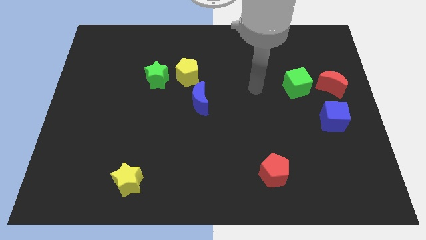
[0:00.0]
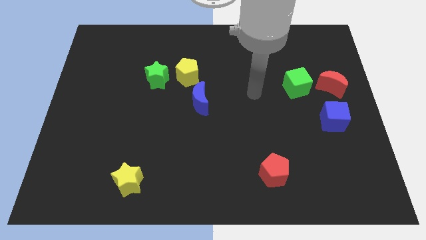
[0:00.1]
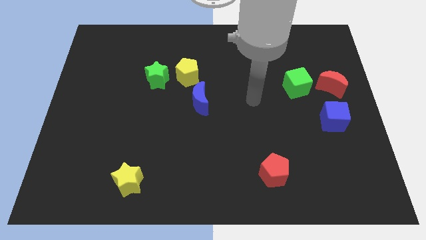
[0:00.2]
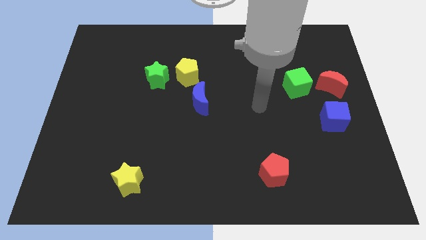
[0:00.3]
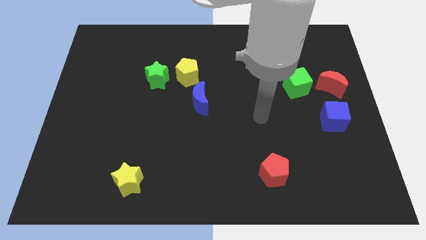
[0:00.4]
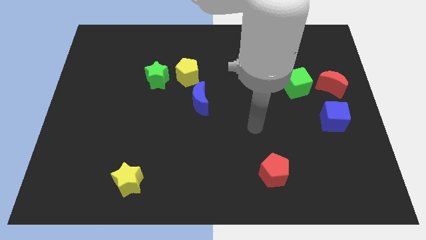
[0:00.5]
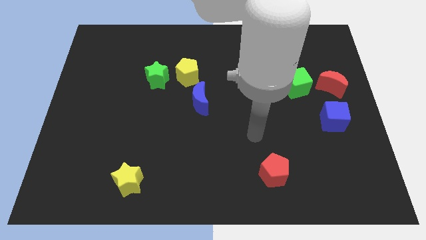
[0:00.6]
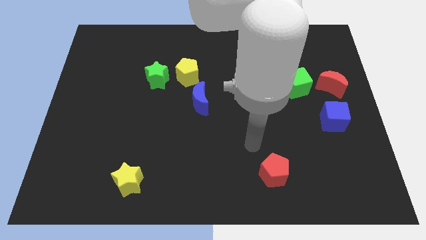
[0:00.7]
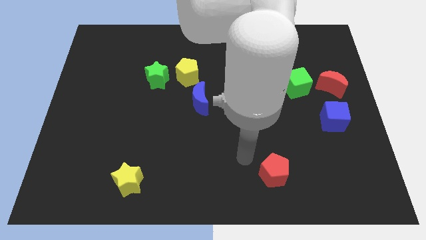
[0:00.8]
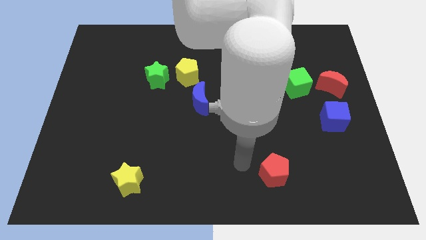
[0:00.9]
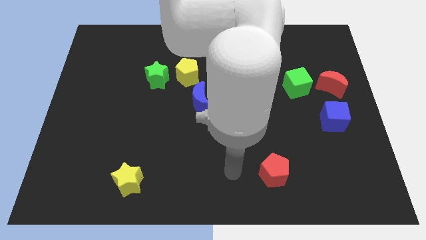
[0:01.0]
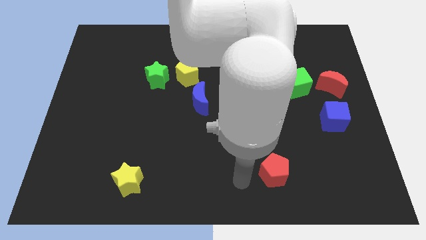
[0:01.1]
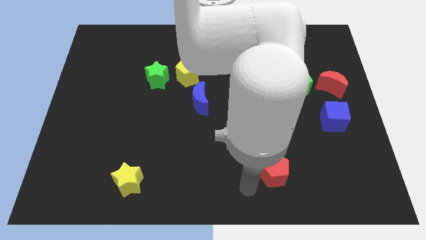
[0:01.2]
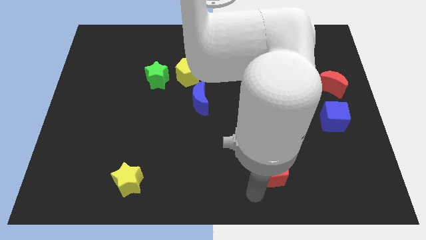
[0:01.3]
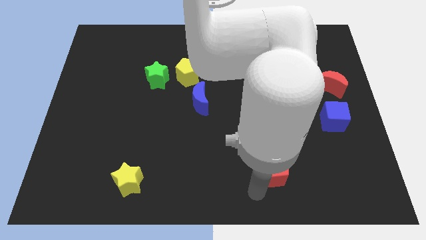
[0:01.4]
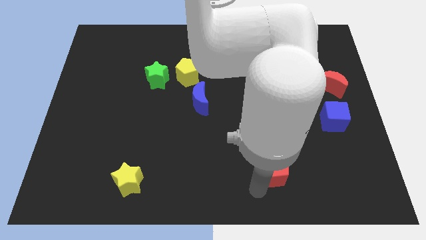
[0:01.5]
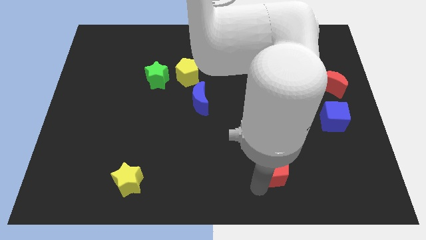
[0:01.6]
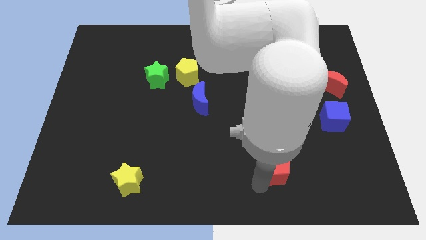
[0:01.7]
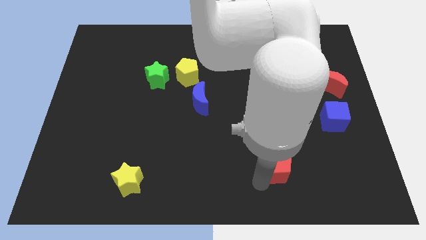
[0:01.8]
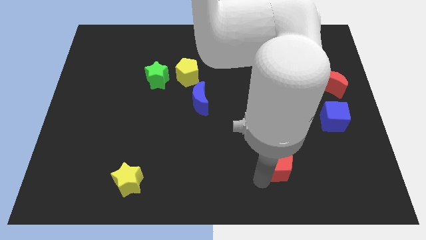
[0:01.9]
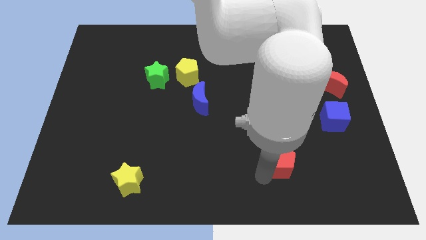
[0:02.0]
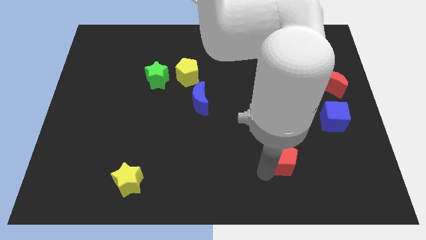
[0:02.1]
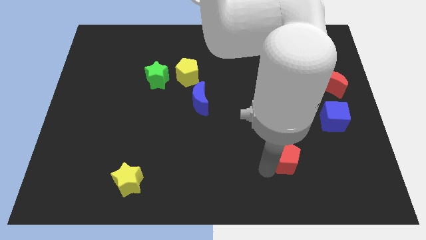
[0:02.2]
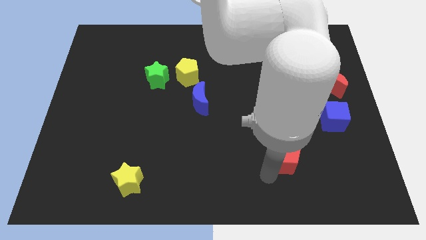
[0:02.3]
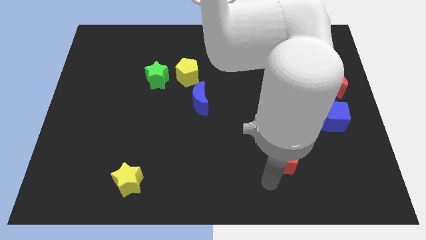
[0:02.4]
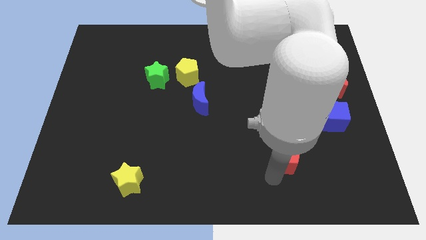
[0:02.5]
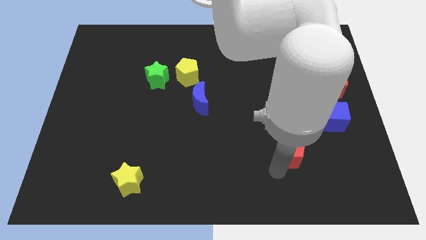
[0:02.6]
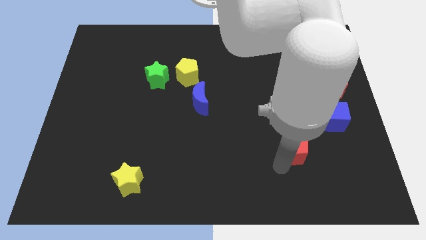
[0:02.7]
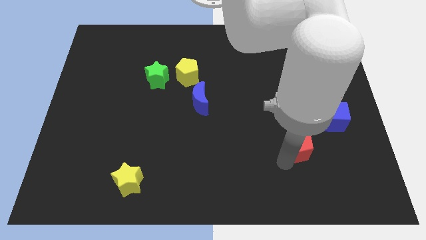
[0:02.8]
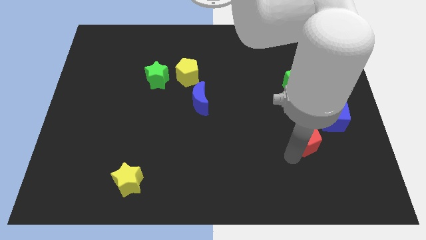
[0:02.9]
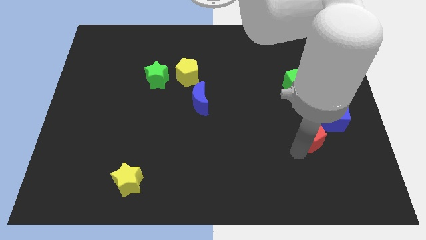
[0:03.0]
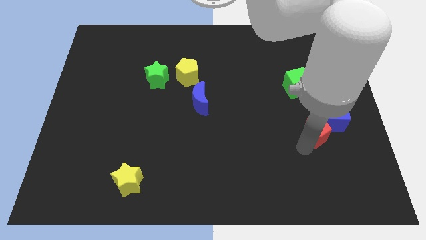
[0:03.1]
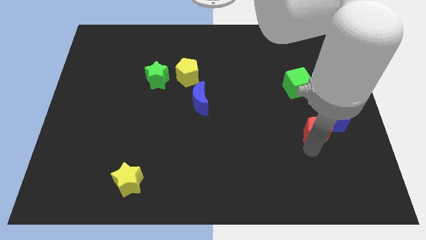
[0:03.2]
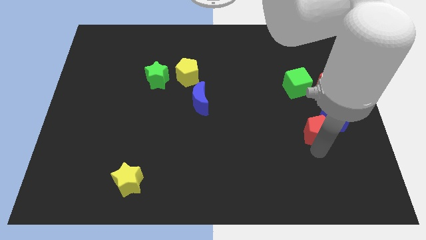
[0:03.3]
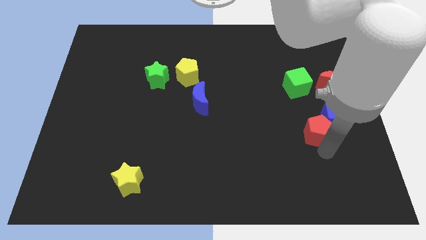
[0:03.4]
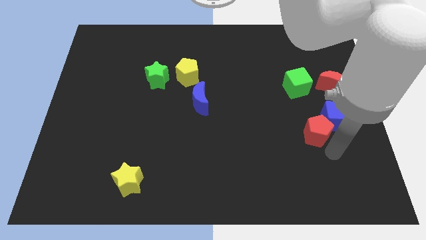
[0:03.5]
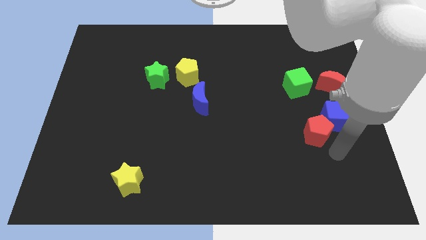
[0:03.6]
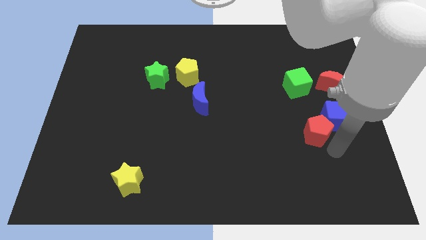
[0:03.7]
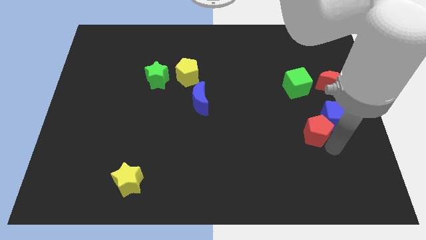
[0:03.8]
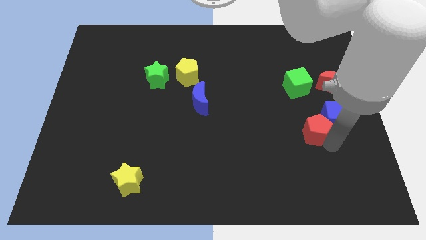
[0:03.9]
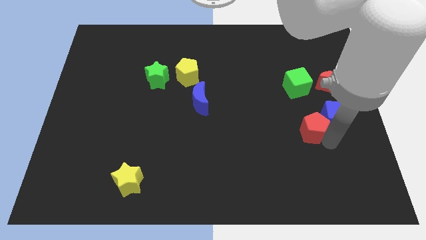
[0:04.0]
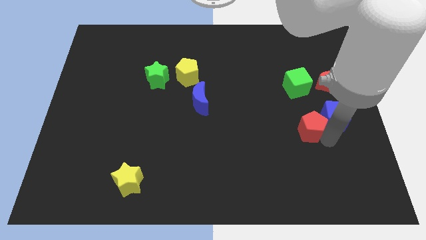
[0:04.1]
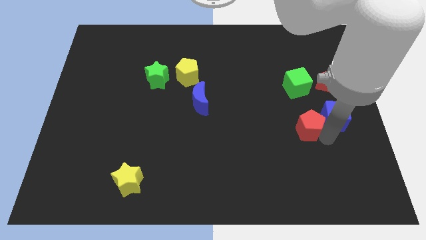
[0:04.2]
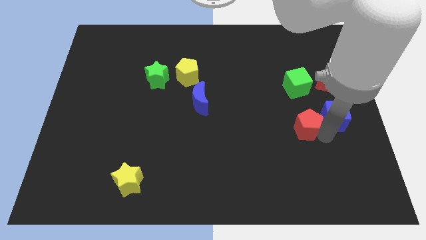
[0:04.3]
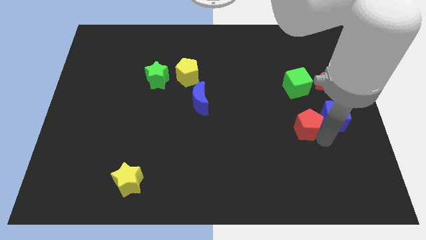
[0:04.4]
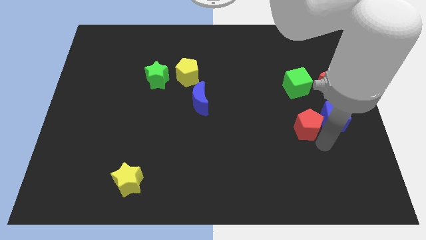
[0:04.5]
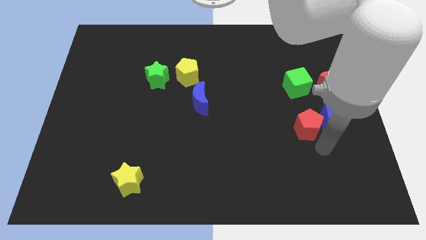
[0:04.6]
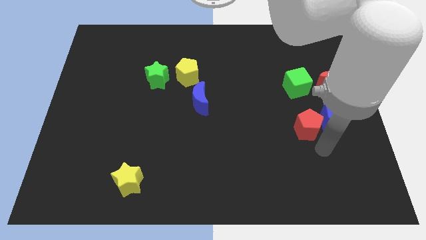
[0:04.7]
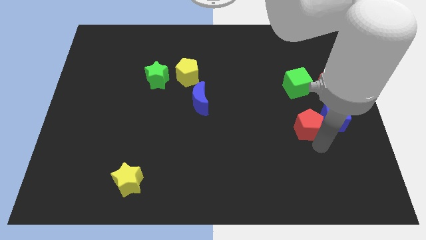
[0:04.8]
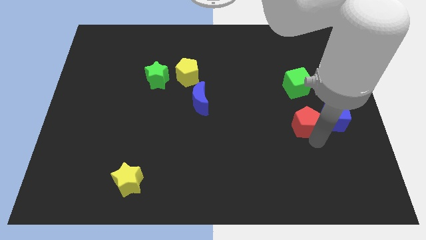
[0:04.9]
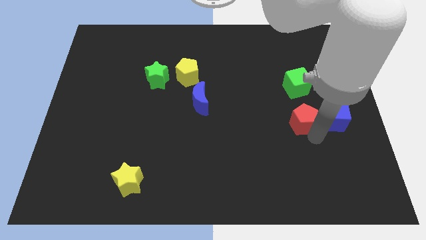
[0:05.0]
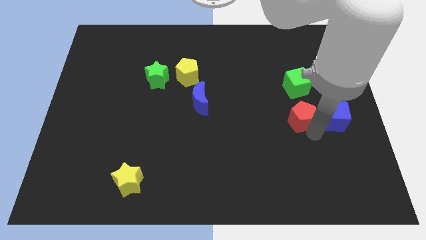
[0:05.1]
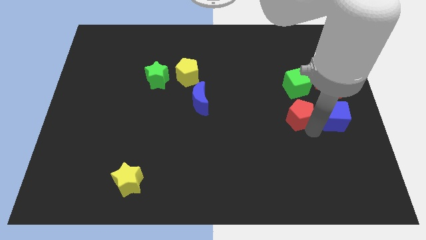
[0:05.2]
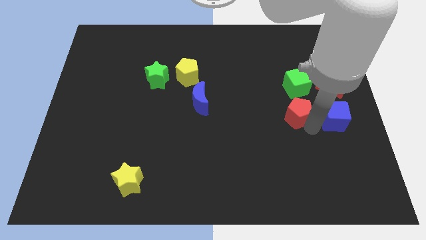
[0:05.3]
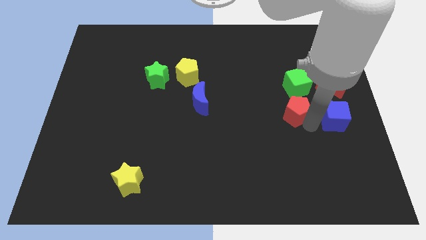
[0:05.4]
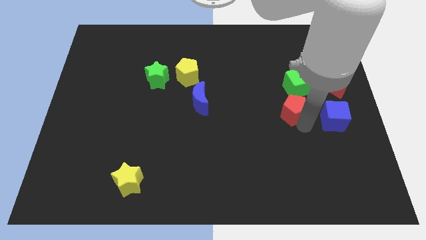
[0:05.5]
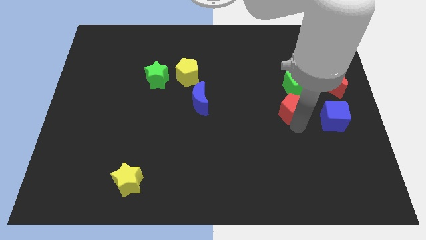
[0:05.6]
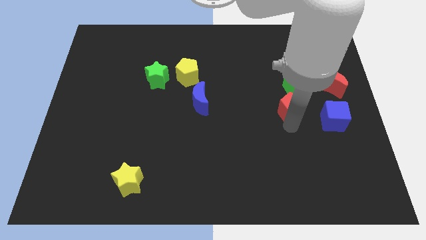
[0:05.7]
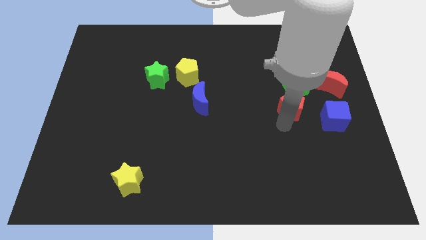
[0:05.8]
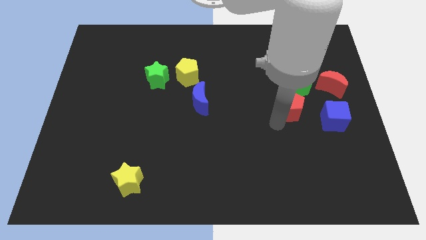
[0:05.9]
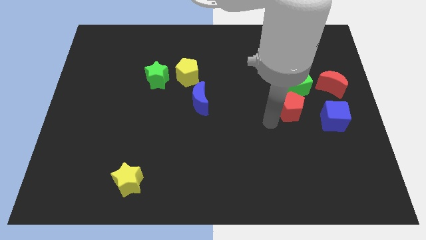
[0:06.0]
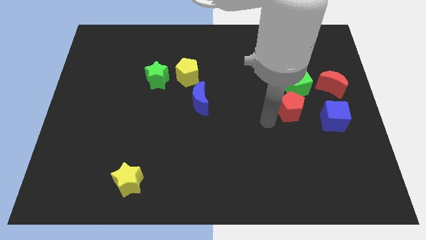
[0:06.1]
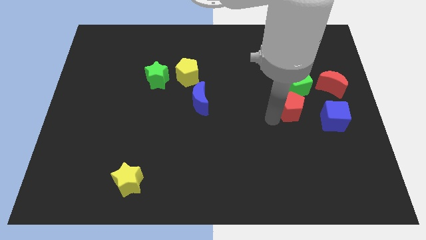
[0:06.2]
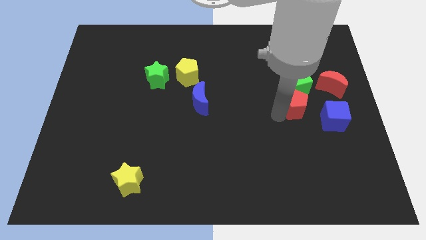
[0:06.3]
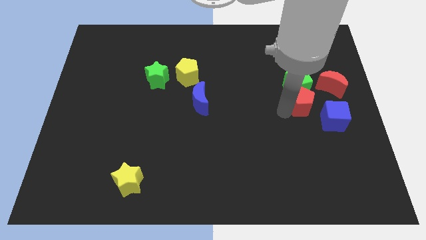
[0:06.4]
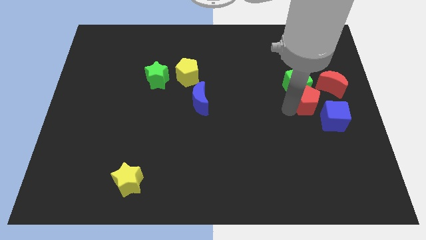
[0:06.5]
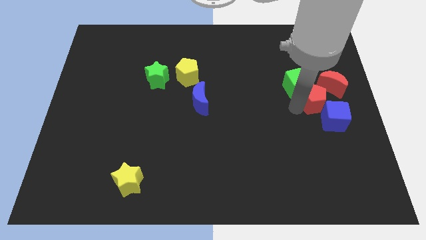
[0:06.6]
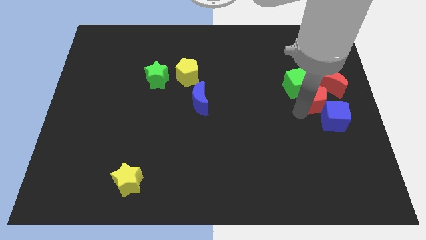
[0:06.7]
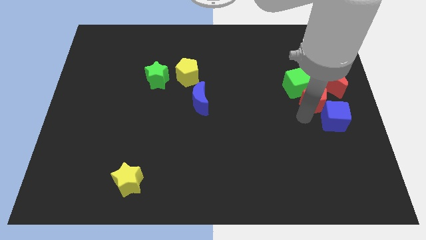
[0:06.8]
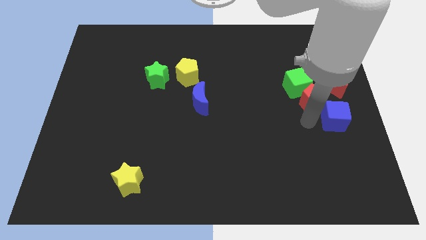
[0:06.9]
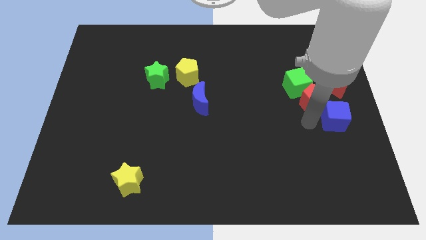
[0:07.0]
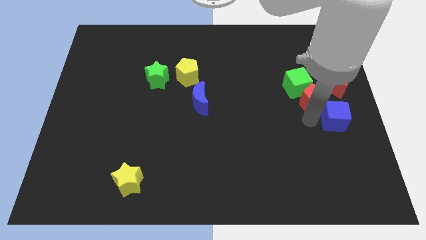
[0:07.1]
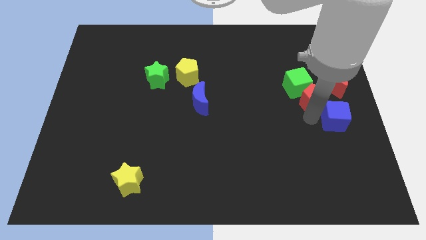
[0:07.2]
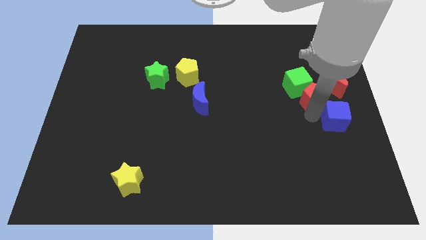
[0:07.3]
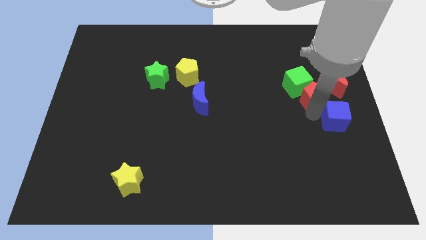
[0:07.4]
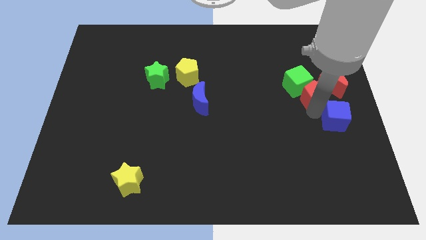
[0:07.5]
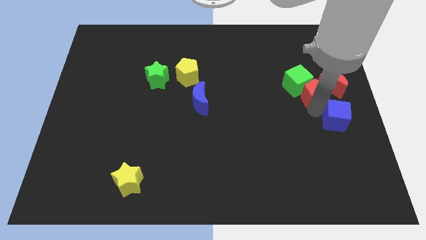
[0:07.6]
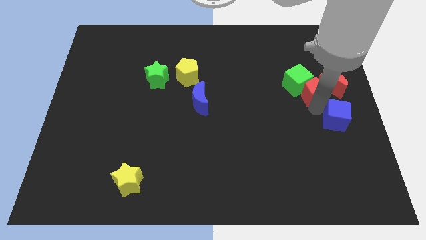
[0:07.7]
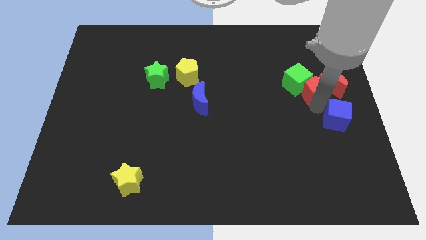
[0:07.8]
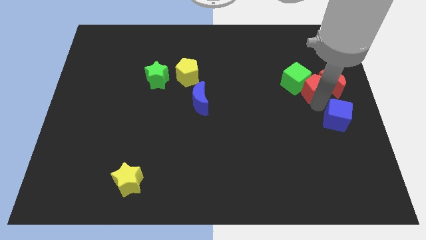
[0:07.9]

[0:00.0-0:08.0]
move the red pentagon to the top left side of the red moon
